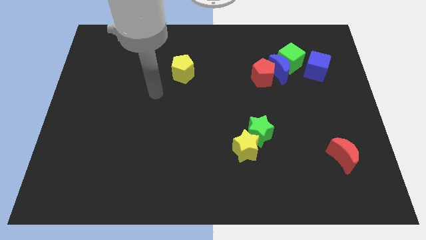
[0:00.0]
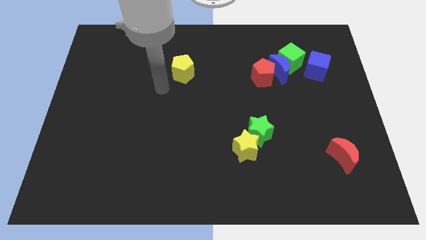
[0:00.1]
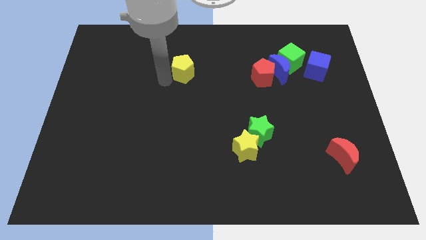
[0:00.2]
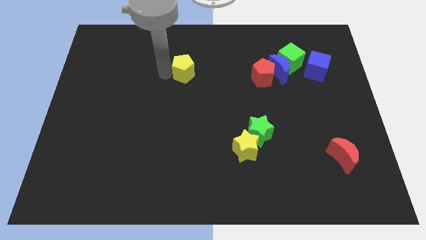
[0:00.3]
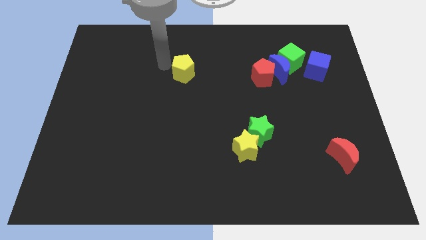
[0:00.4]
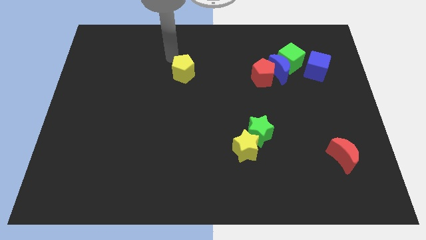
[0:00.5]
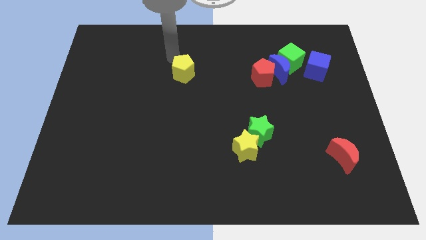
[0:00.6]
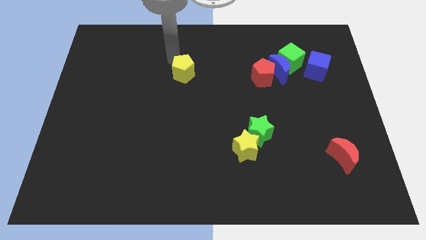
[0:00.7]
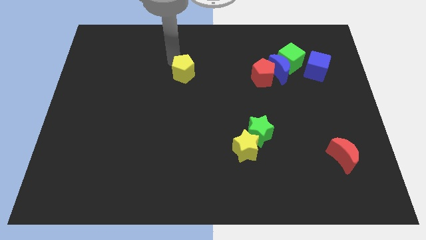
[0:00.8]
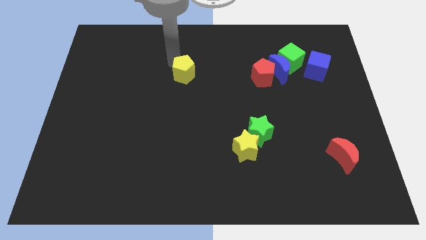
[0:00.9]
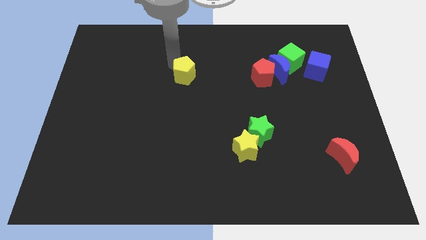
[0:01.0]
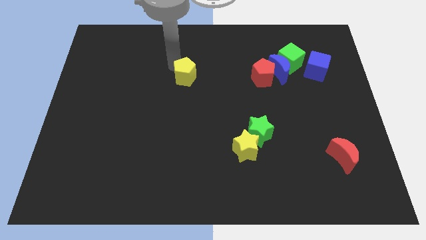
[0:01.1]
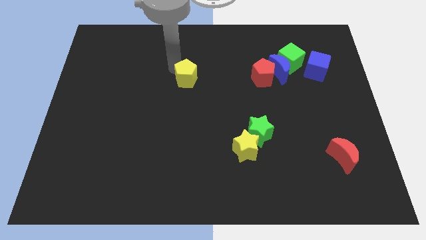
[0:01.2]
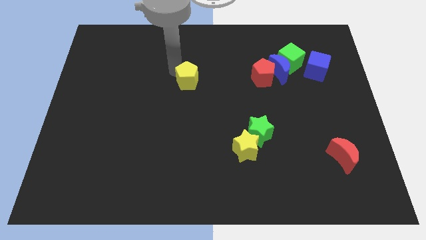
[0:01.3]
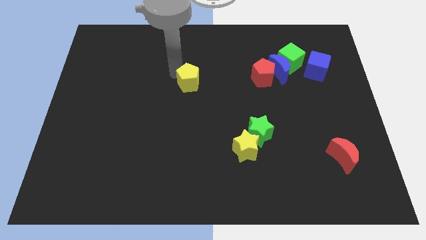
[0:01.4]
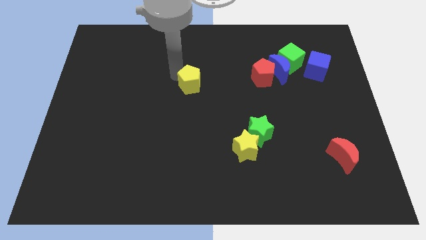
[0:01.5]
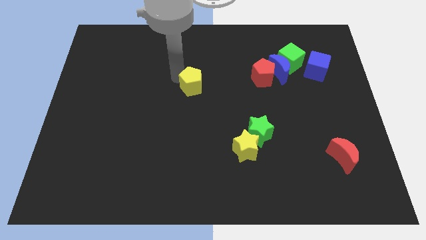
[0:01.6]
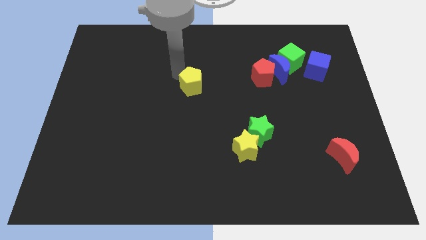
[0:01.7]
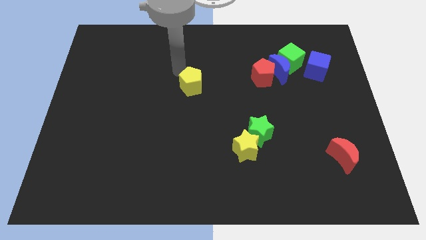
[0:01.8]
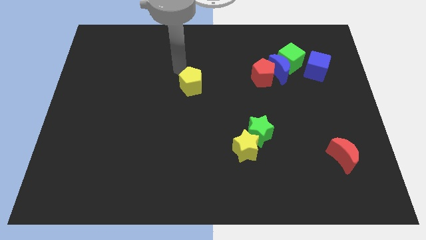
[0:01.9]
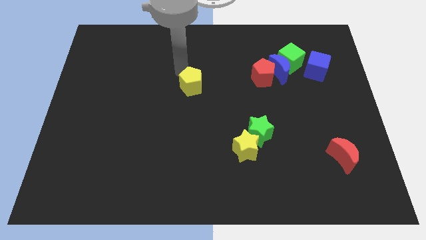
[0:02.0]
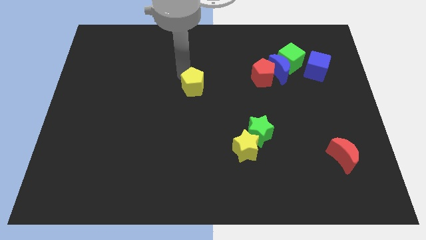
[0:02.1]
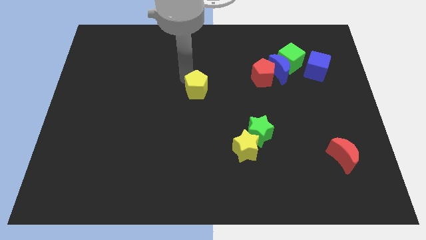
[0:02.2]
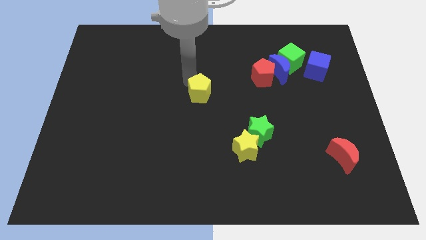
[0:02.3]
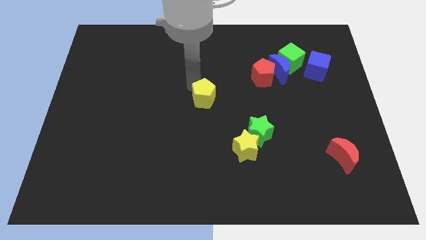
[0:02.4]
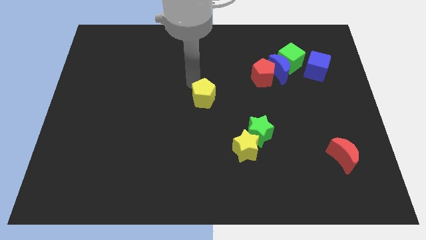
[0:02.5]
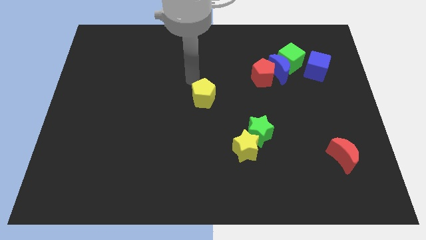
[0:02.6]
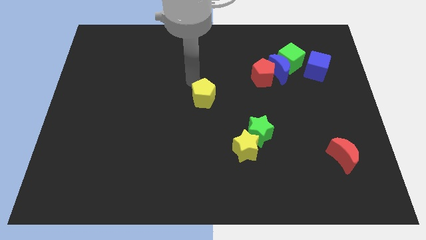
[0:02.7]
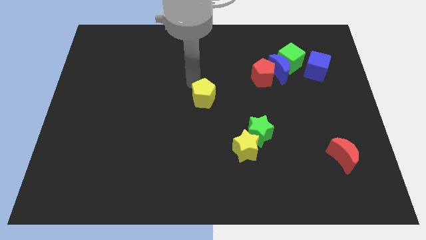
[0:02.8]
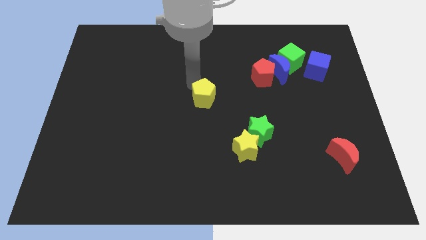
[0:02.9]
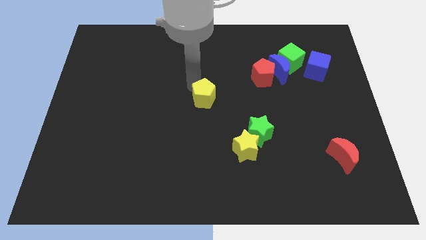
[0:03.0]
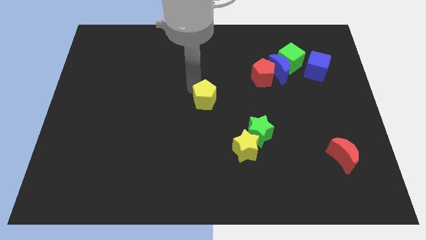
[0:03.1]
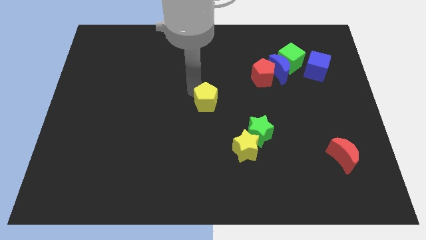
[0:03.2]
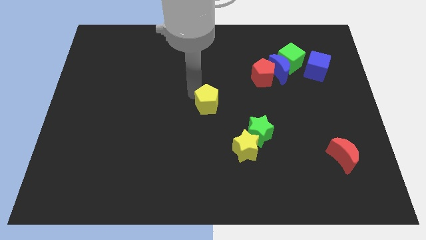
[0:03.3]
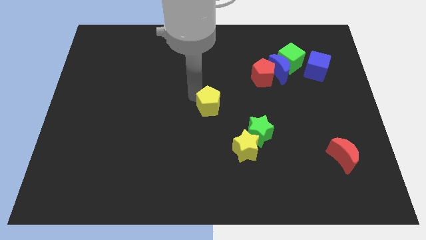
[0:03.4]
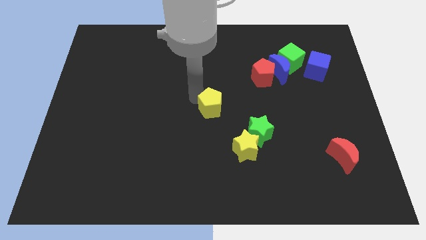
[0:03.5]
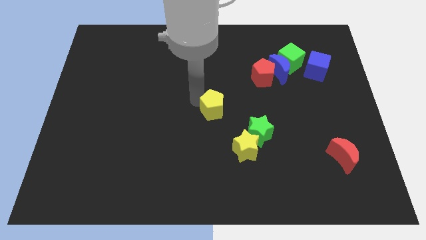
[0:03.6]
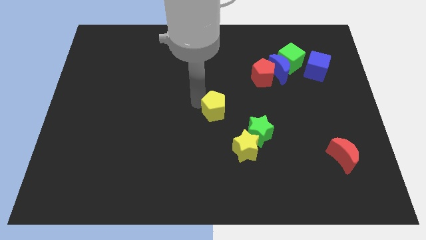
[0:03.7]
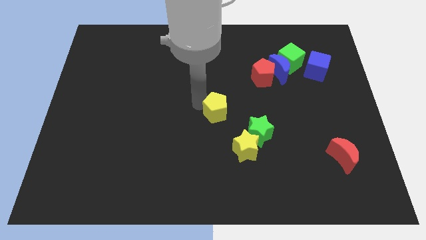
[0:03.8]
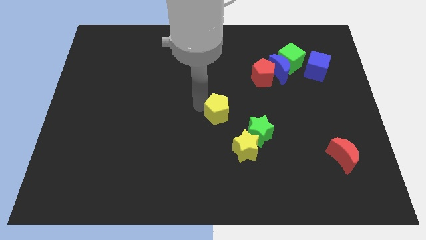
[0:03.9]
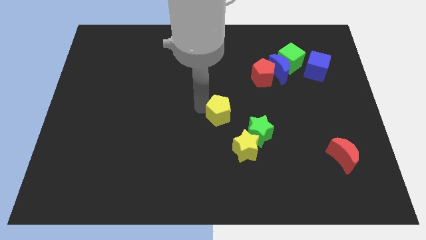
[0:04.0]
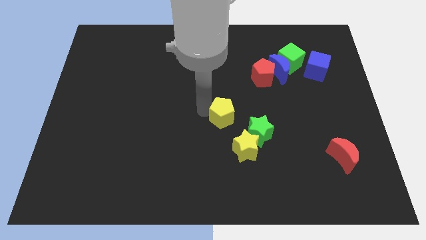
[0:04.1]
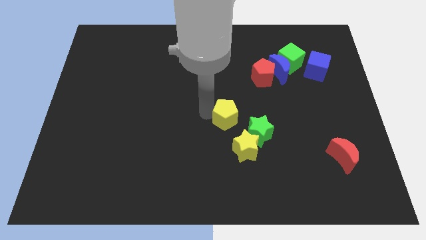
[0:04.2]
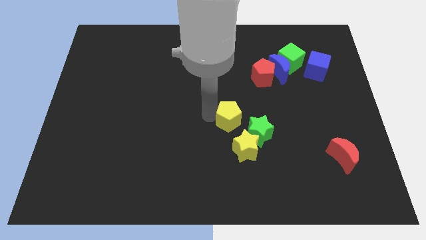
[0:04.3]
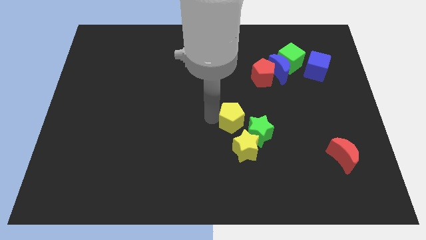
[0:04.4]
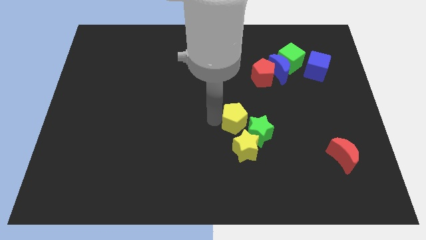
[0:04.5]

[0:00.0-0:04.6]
push the yellow pentagon close to the green star

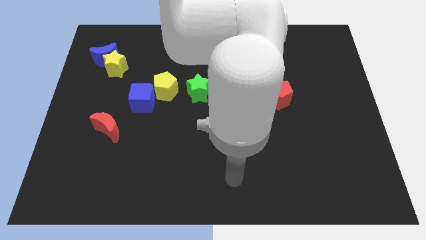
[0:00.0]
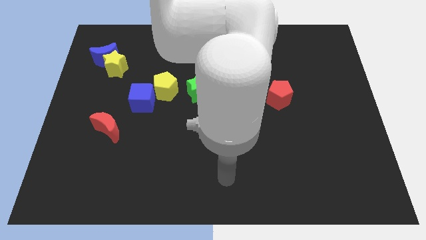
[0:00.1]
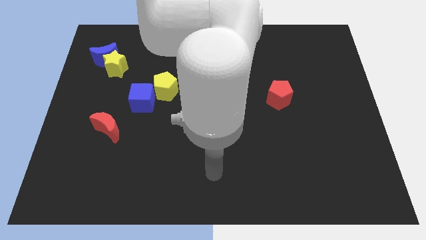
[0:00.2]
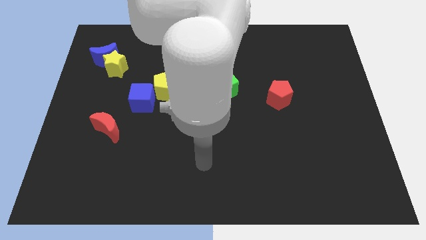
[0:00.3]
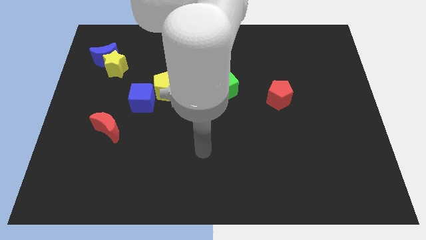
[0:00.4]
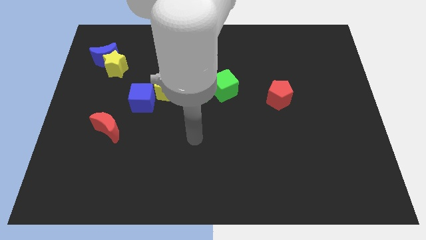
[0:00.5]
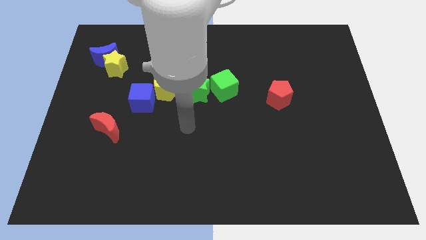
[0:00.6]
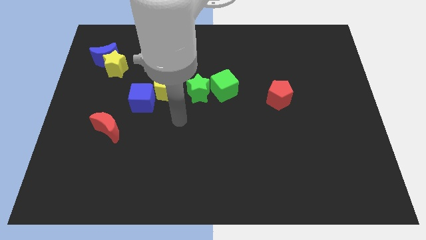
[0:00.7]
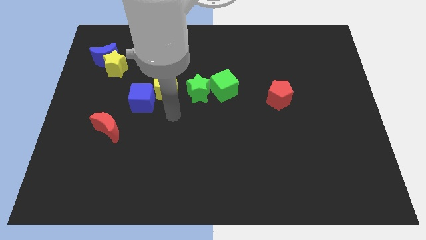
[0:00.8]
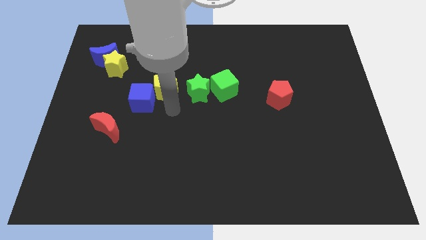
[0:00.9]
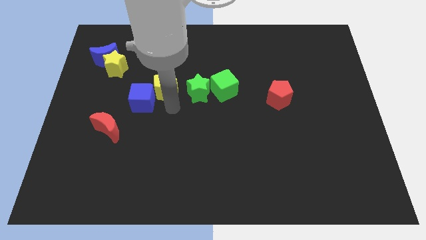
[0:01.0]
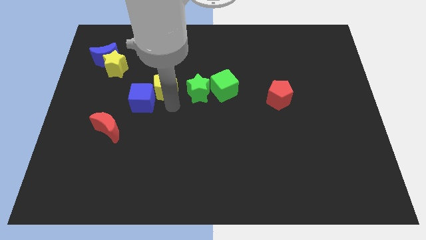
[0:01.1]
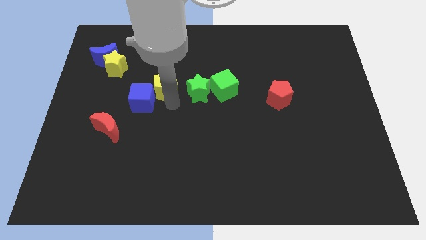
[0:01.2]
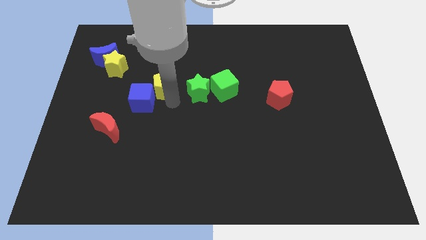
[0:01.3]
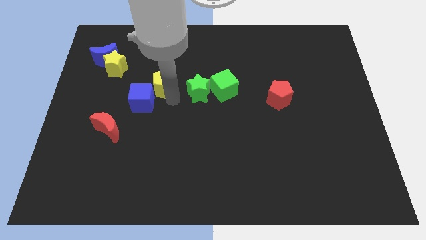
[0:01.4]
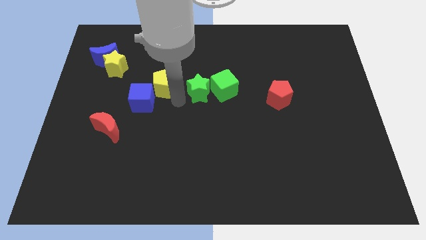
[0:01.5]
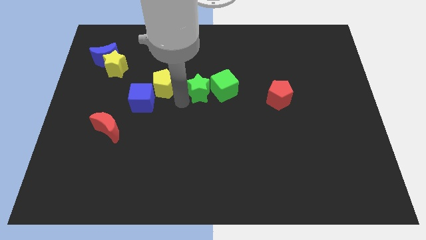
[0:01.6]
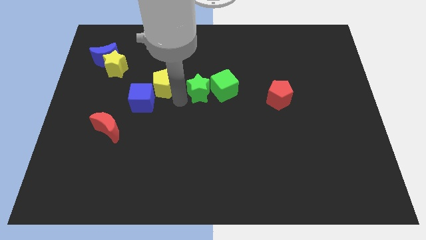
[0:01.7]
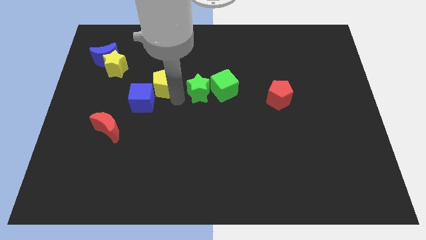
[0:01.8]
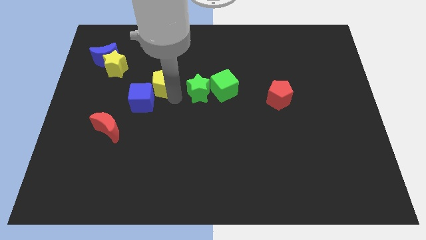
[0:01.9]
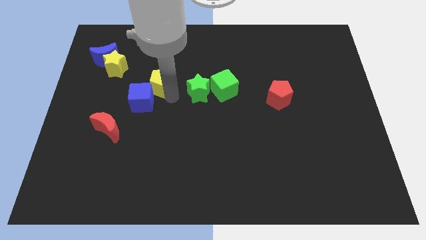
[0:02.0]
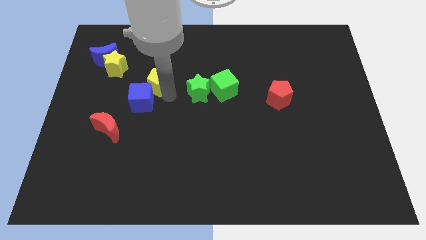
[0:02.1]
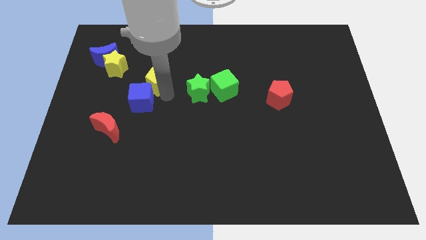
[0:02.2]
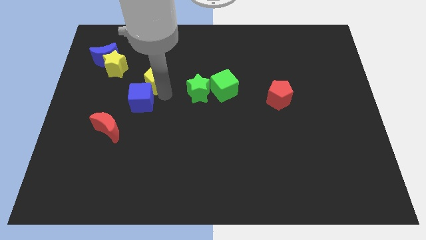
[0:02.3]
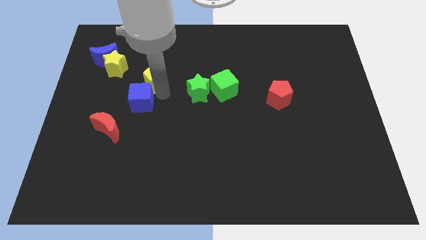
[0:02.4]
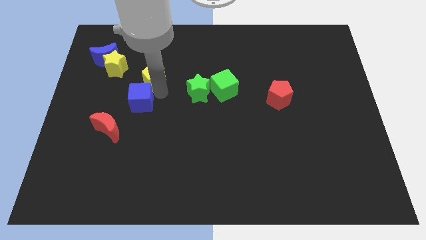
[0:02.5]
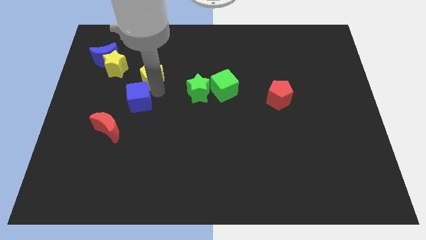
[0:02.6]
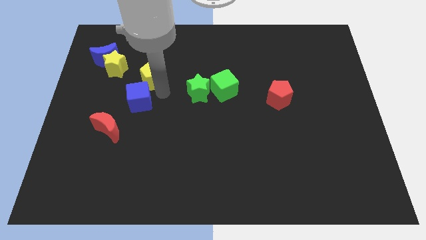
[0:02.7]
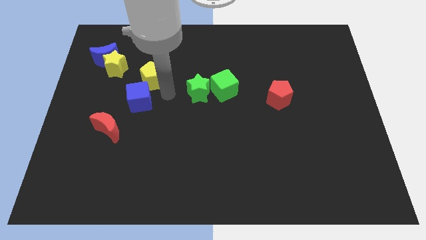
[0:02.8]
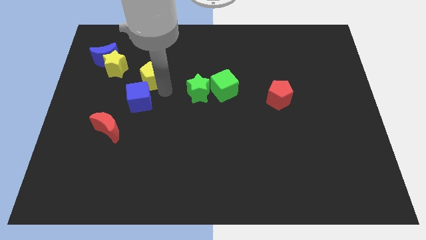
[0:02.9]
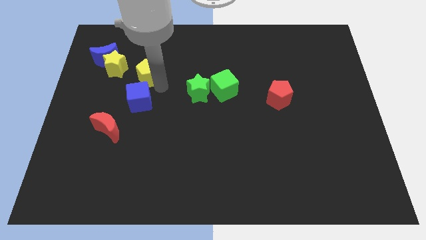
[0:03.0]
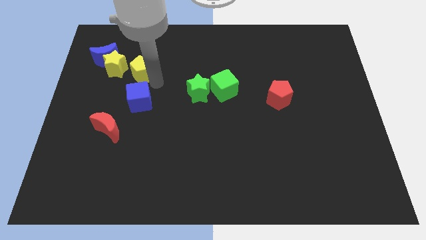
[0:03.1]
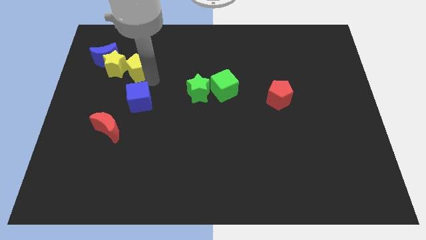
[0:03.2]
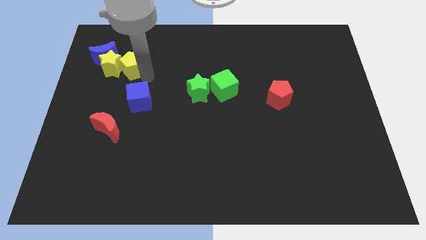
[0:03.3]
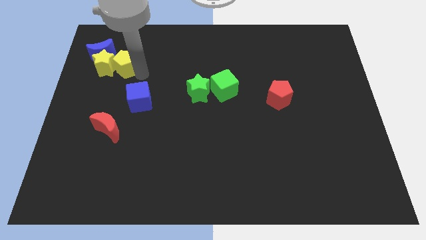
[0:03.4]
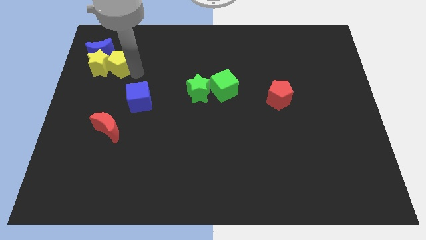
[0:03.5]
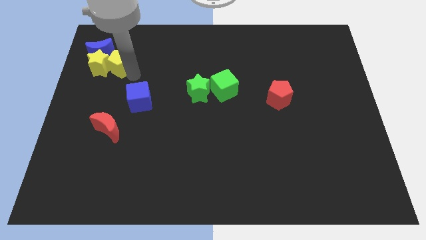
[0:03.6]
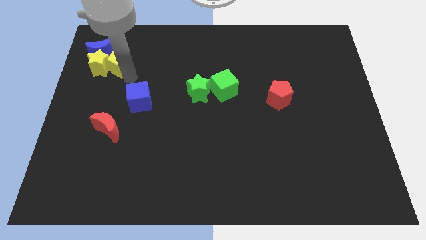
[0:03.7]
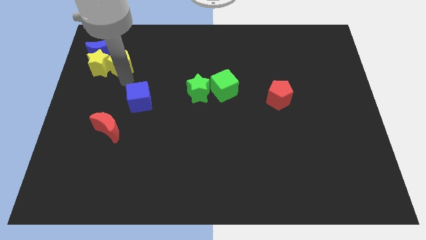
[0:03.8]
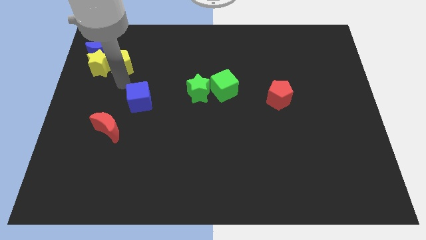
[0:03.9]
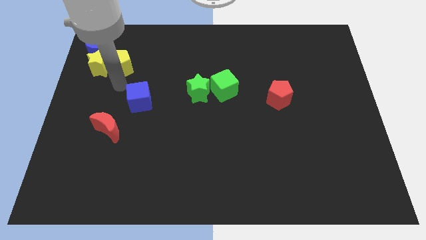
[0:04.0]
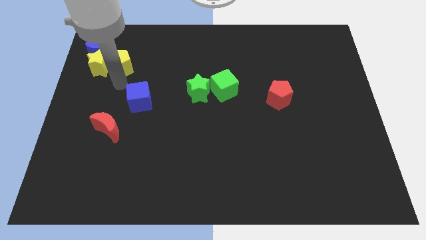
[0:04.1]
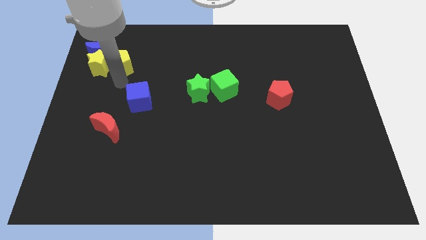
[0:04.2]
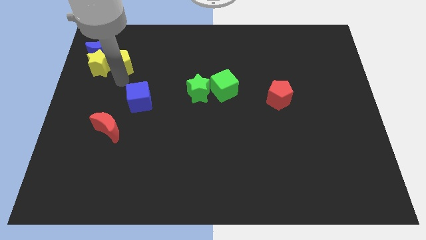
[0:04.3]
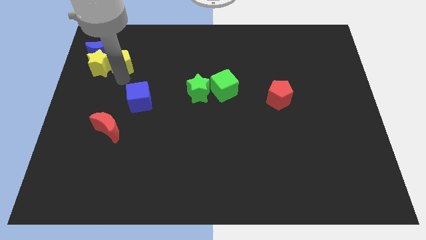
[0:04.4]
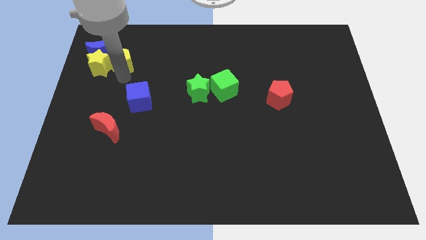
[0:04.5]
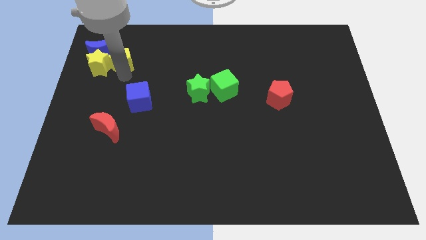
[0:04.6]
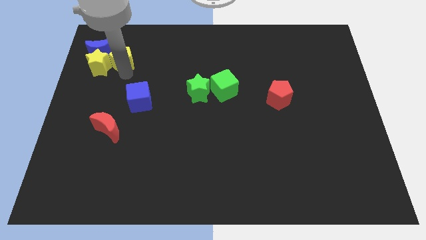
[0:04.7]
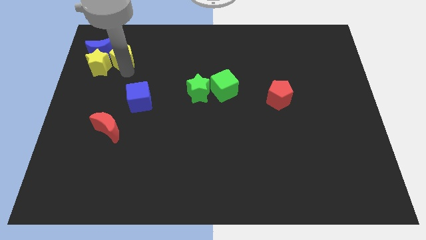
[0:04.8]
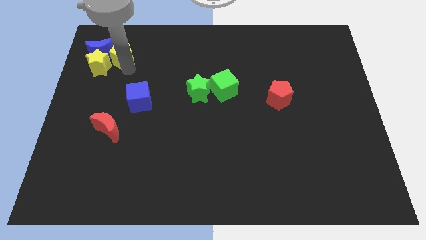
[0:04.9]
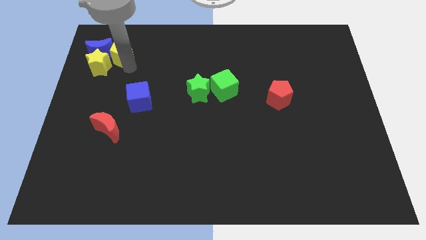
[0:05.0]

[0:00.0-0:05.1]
slide the yellow pentagon to the blue moon
